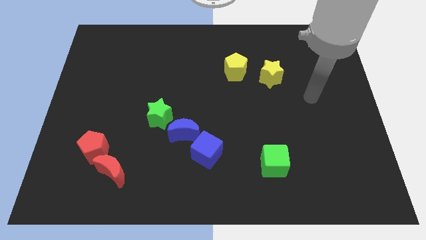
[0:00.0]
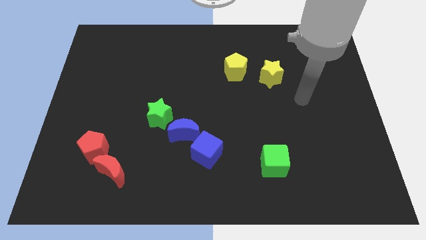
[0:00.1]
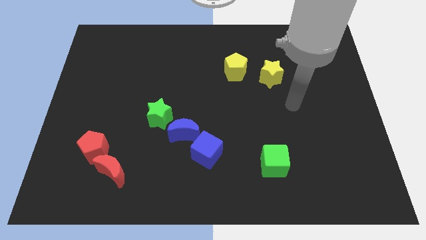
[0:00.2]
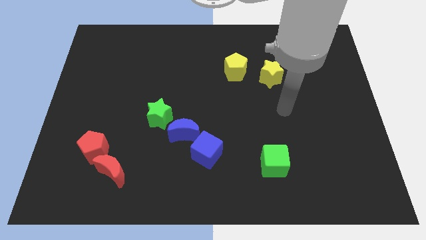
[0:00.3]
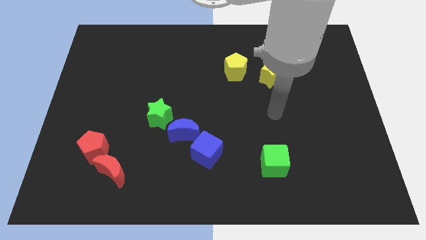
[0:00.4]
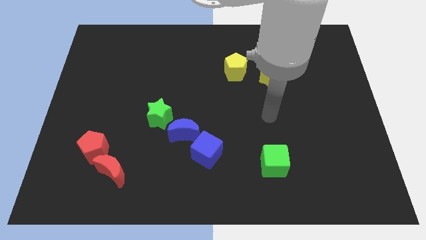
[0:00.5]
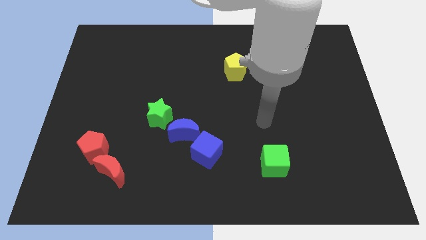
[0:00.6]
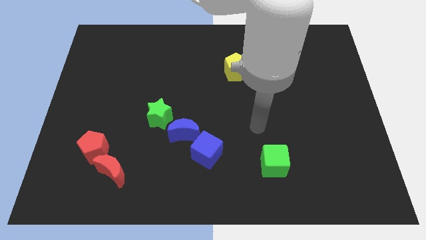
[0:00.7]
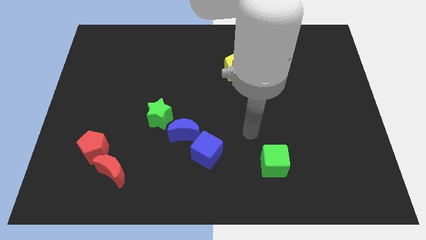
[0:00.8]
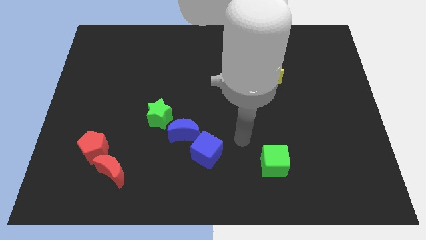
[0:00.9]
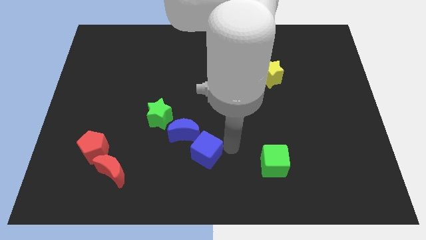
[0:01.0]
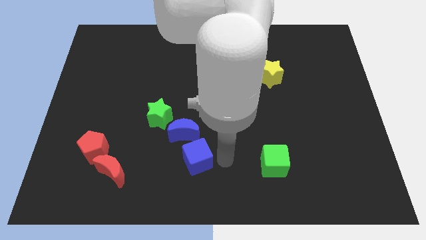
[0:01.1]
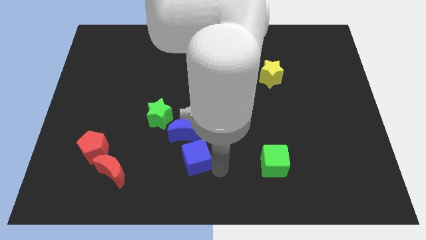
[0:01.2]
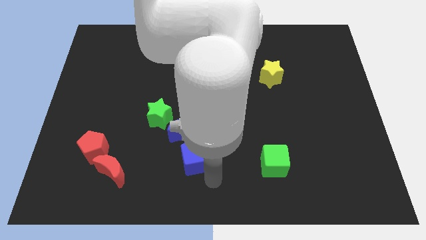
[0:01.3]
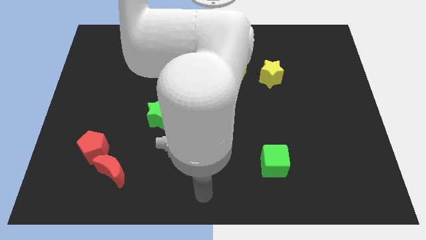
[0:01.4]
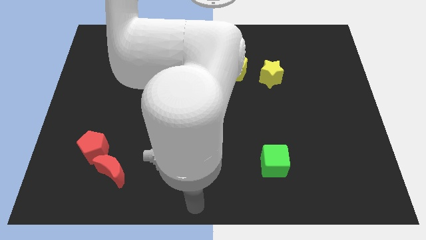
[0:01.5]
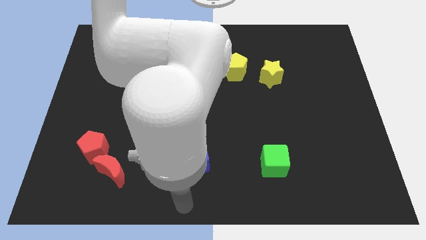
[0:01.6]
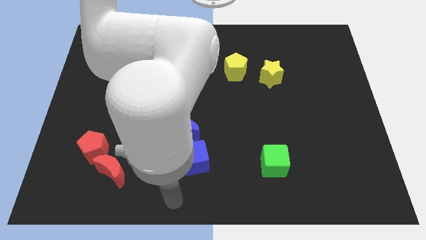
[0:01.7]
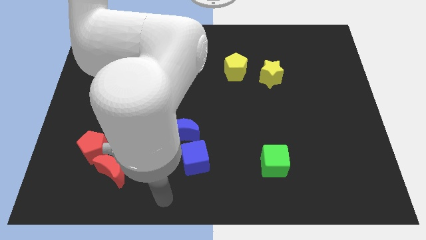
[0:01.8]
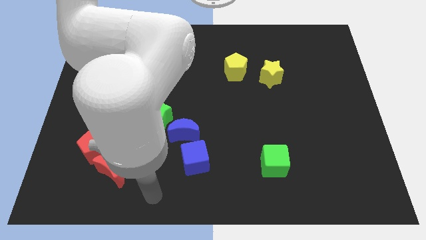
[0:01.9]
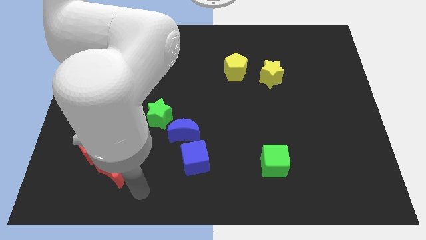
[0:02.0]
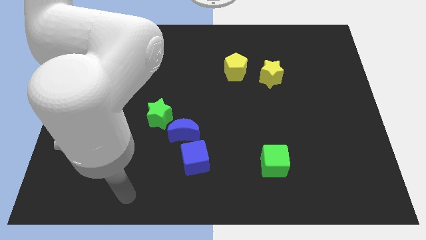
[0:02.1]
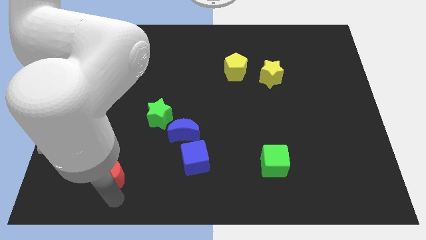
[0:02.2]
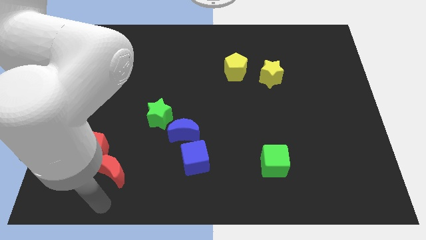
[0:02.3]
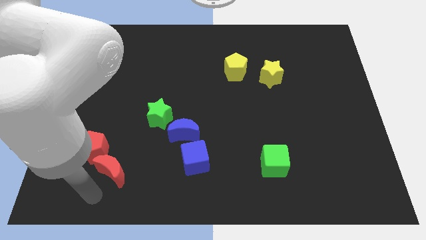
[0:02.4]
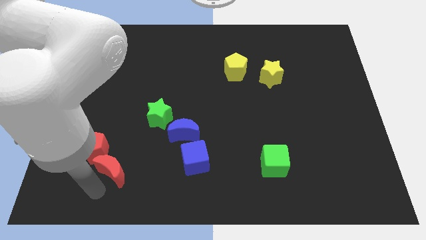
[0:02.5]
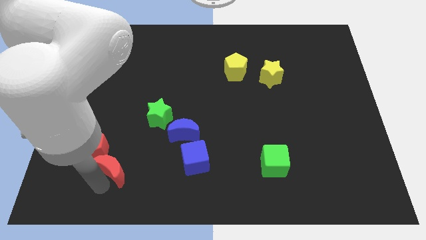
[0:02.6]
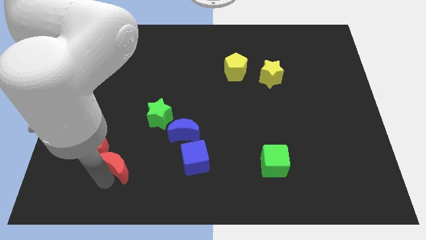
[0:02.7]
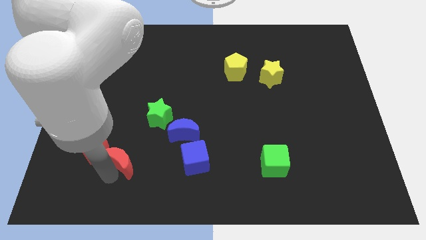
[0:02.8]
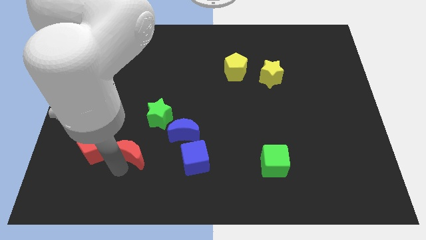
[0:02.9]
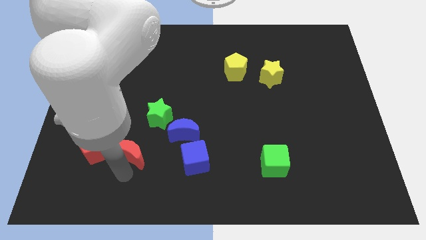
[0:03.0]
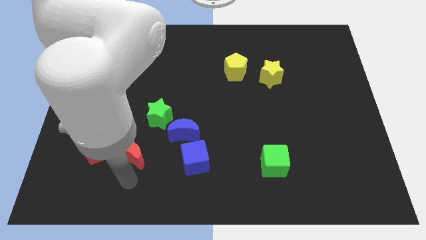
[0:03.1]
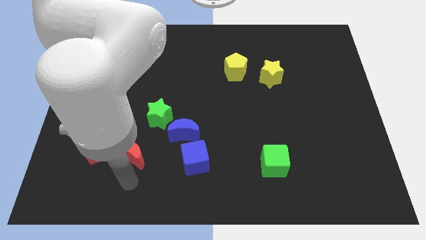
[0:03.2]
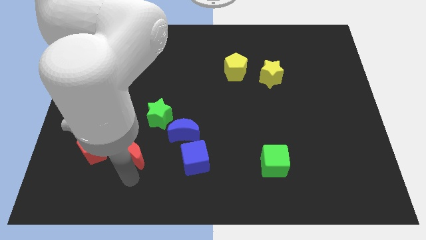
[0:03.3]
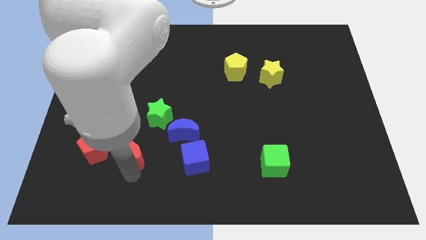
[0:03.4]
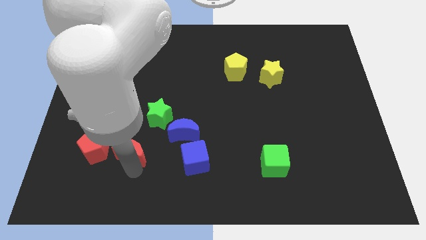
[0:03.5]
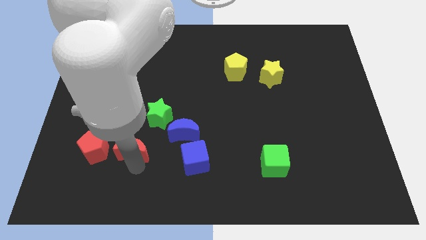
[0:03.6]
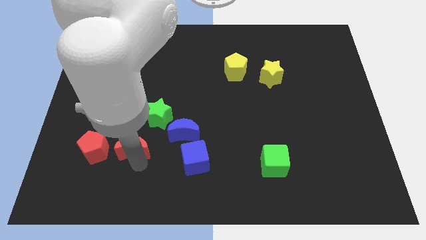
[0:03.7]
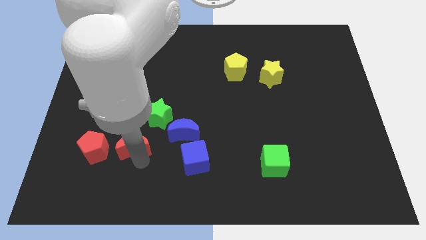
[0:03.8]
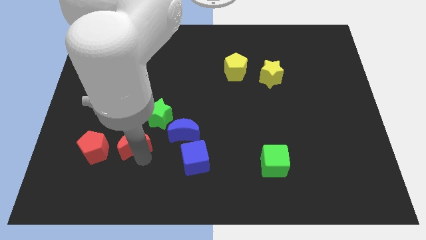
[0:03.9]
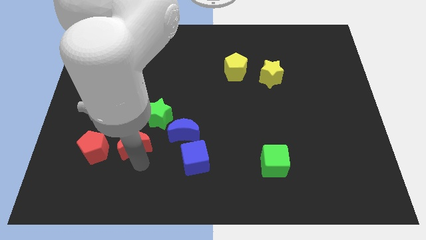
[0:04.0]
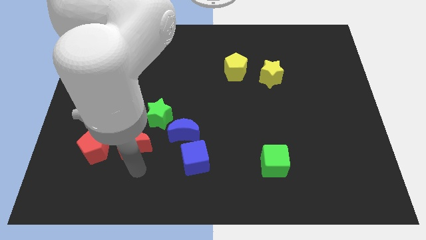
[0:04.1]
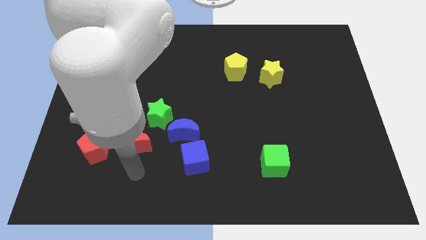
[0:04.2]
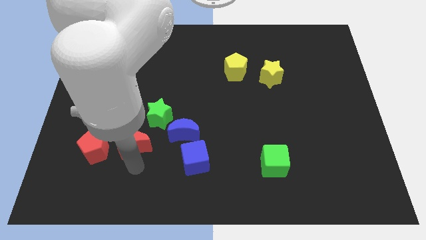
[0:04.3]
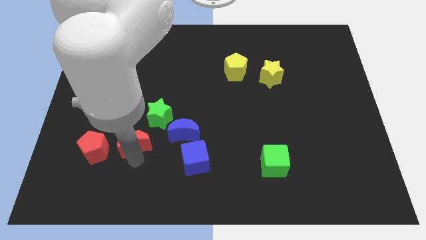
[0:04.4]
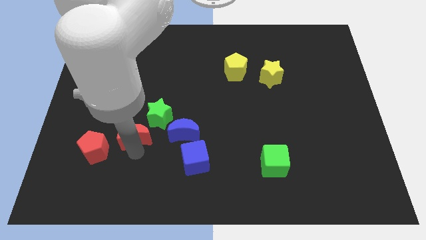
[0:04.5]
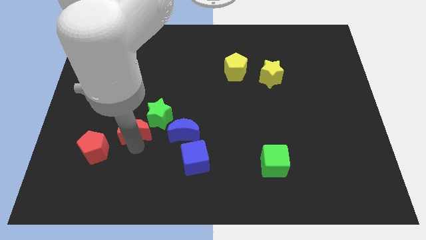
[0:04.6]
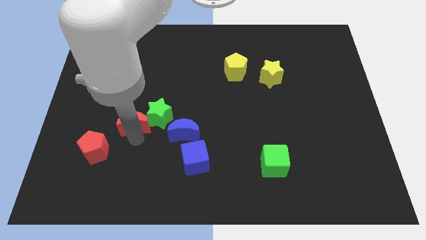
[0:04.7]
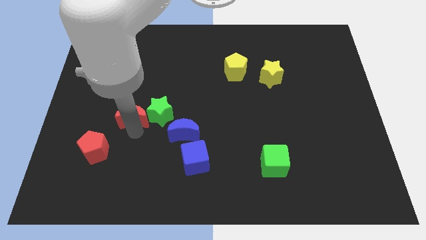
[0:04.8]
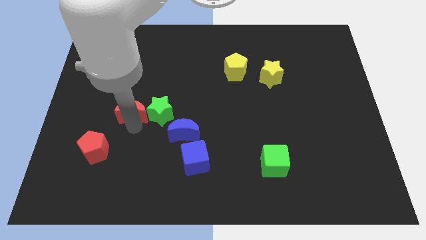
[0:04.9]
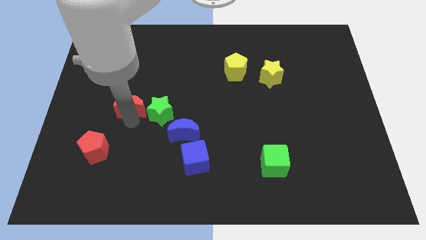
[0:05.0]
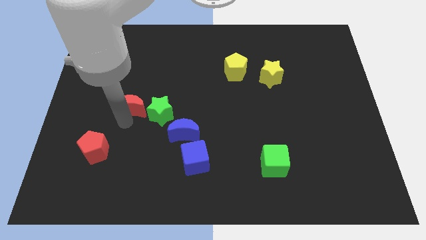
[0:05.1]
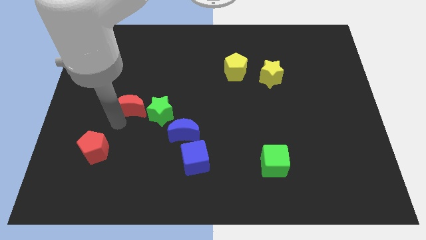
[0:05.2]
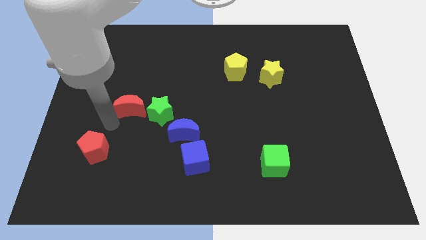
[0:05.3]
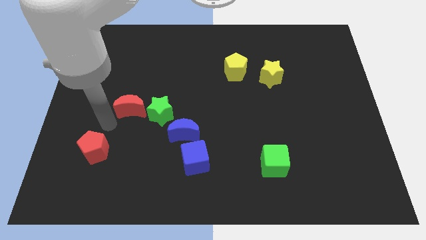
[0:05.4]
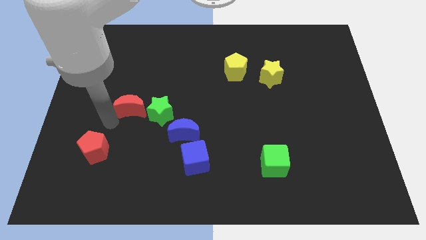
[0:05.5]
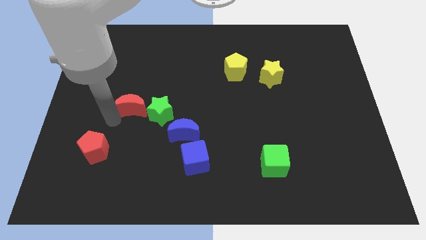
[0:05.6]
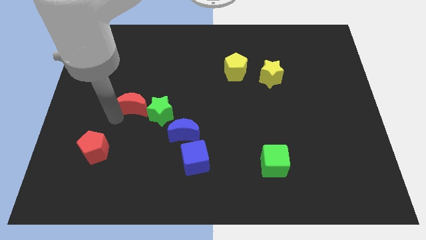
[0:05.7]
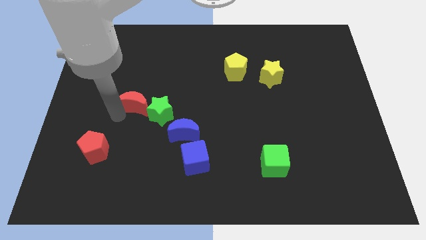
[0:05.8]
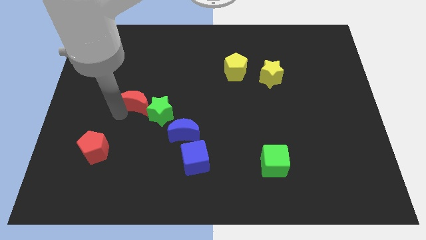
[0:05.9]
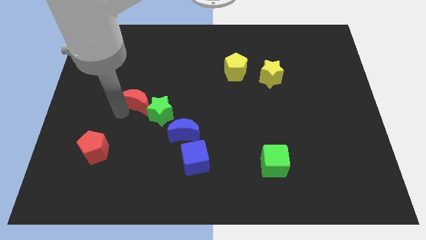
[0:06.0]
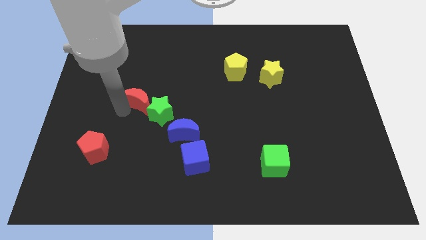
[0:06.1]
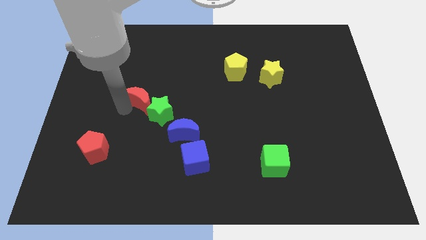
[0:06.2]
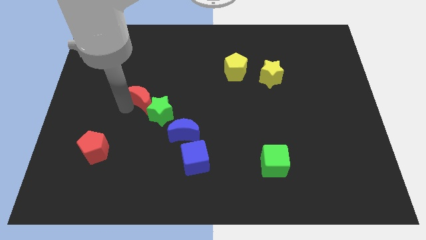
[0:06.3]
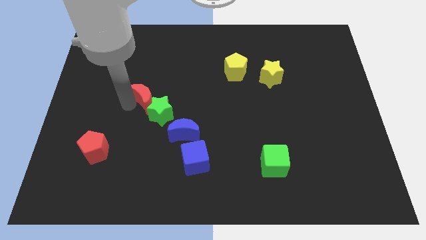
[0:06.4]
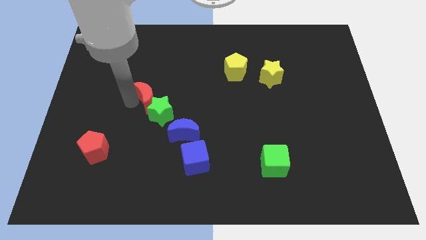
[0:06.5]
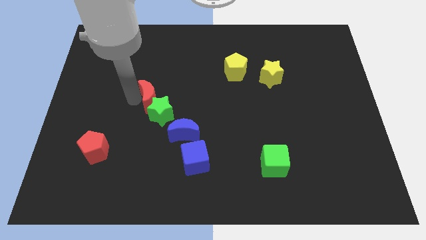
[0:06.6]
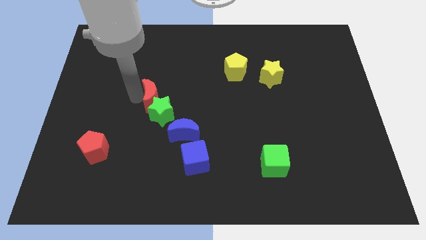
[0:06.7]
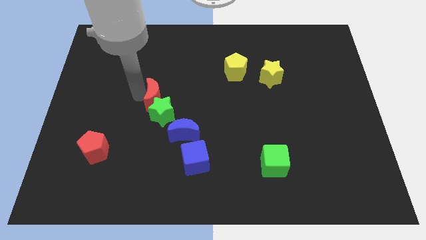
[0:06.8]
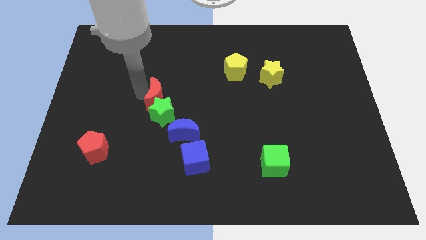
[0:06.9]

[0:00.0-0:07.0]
move the red moon to the top right side of the green star
